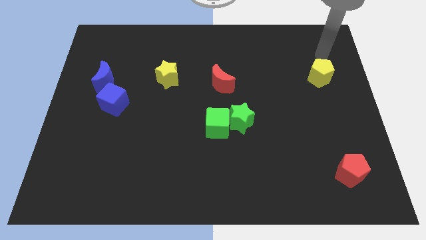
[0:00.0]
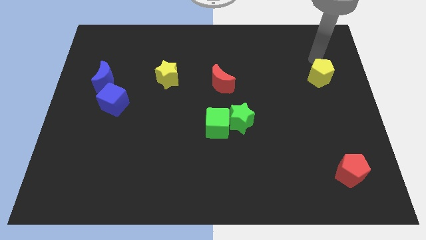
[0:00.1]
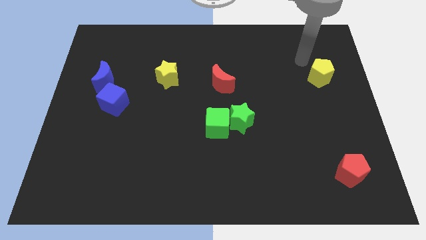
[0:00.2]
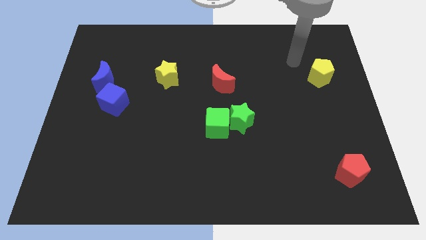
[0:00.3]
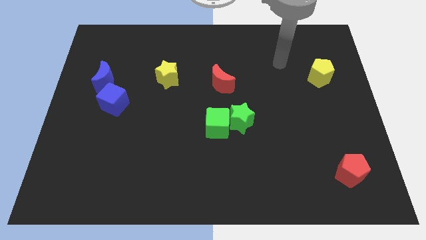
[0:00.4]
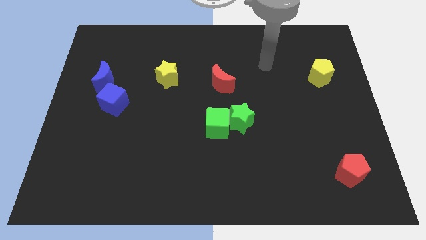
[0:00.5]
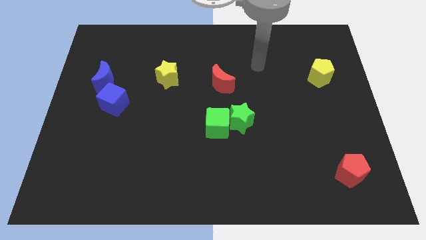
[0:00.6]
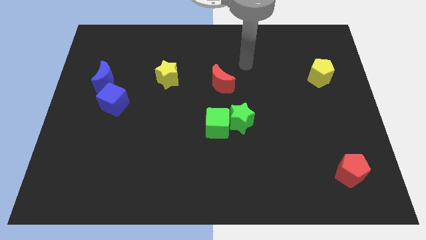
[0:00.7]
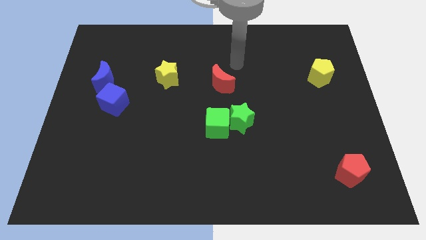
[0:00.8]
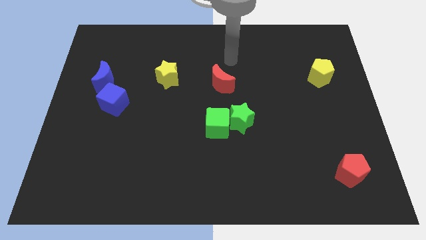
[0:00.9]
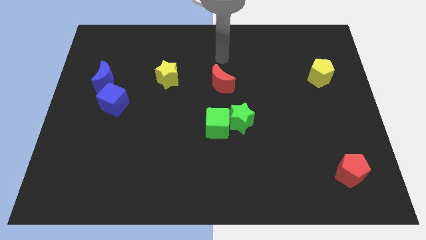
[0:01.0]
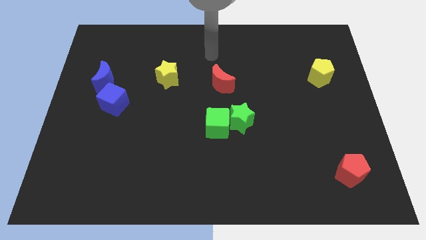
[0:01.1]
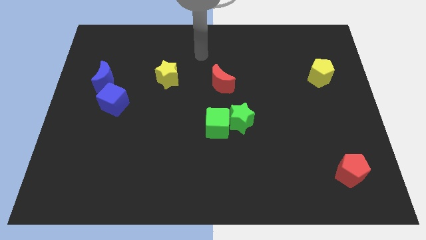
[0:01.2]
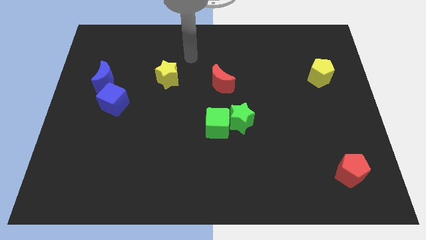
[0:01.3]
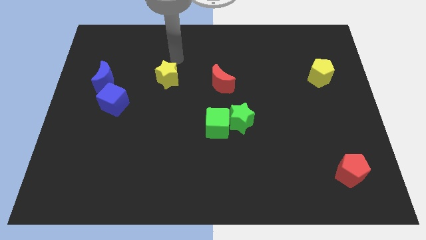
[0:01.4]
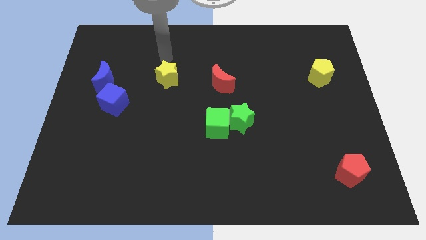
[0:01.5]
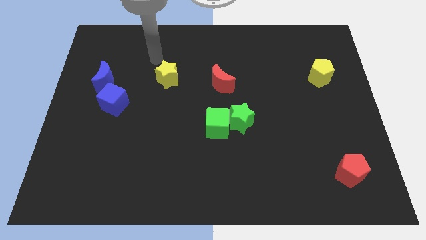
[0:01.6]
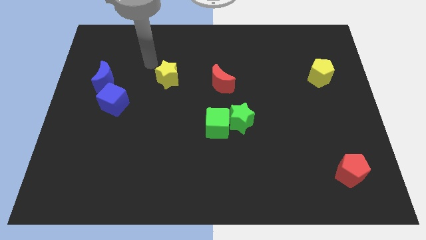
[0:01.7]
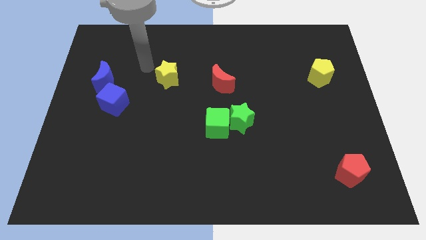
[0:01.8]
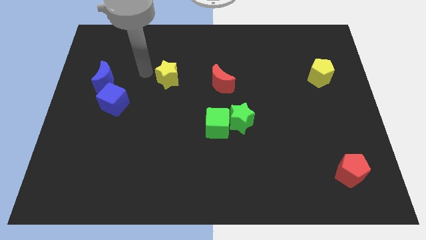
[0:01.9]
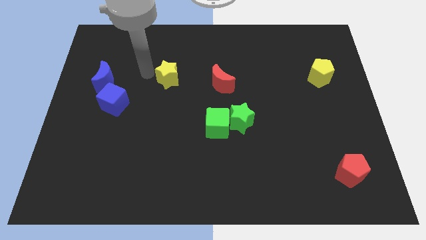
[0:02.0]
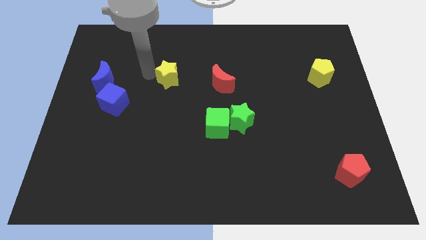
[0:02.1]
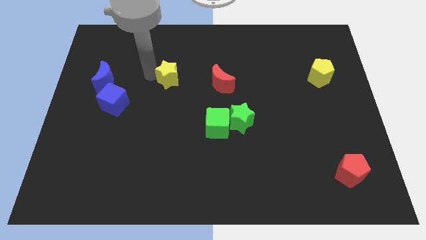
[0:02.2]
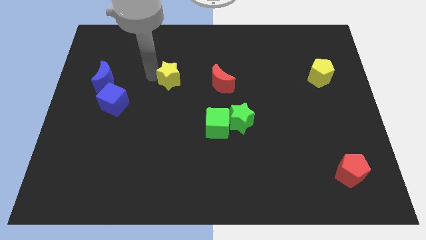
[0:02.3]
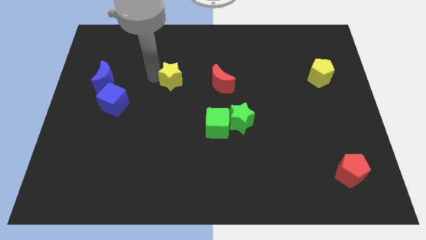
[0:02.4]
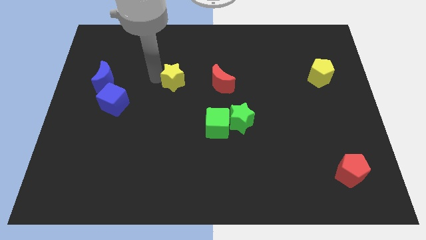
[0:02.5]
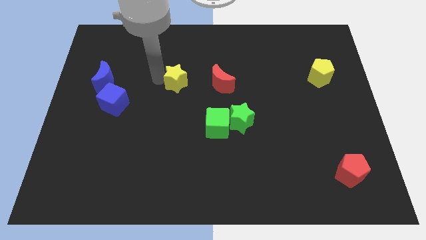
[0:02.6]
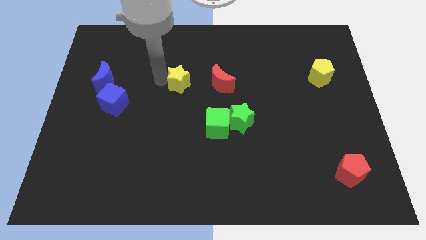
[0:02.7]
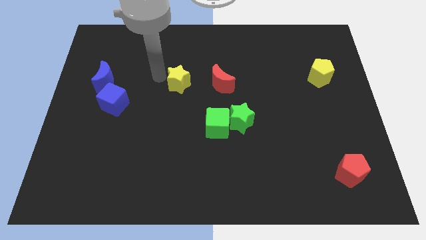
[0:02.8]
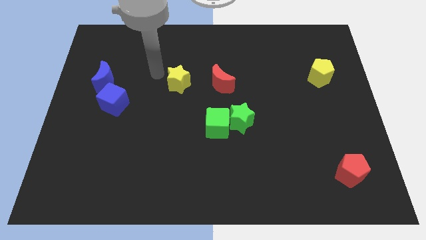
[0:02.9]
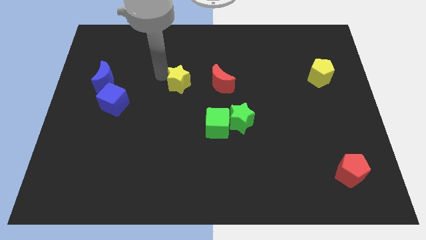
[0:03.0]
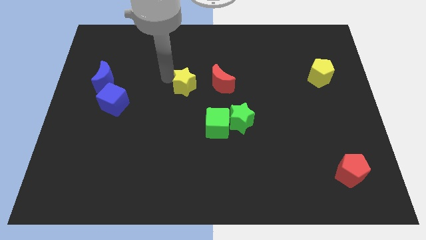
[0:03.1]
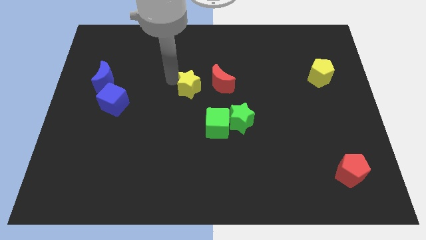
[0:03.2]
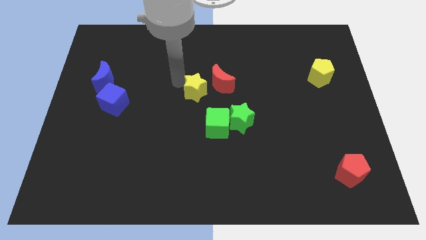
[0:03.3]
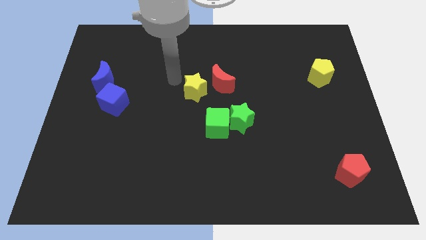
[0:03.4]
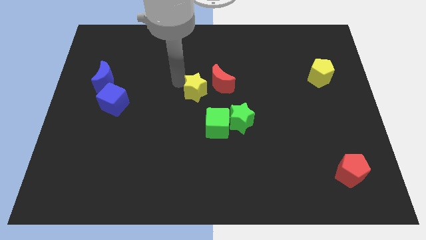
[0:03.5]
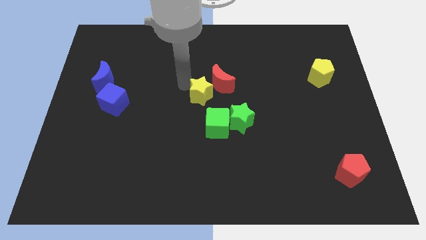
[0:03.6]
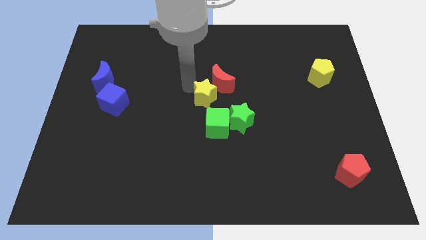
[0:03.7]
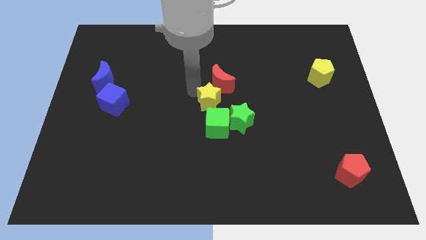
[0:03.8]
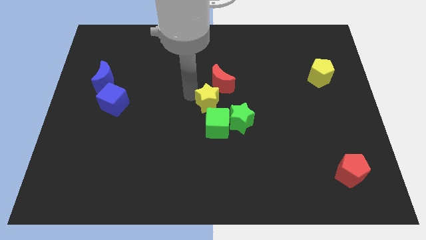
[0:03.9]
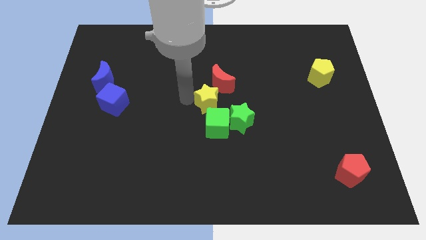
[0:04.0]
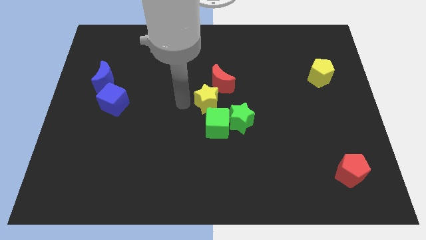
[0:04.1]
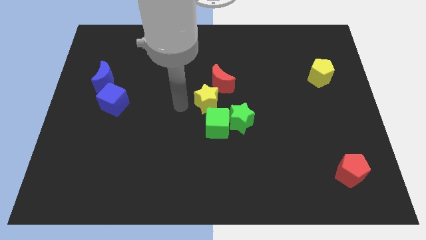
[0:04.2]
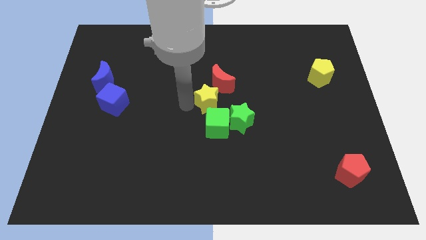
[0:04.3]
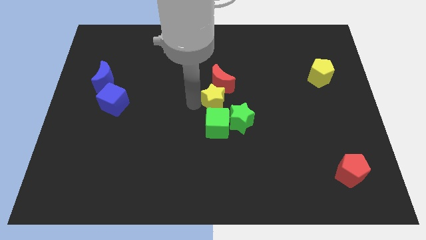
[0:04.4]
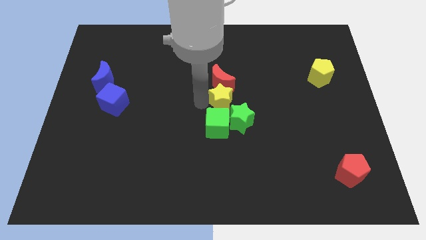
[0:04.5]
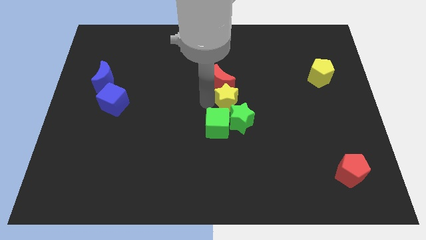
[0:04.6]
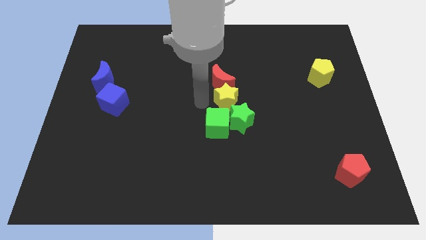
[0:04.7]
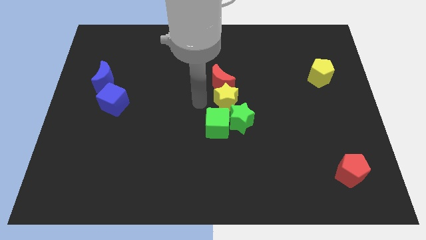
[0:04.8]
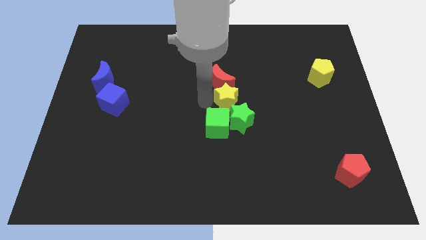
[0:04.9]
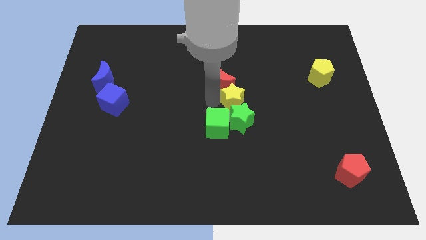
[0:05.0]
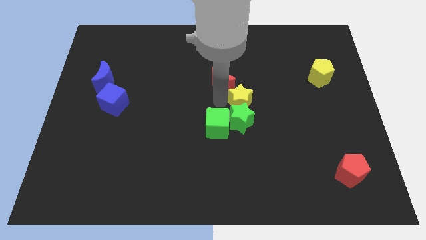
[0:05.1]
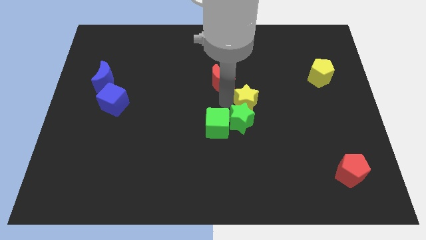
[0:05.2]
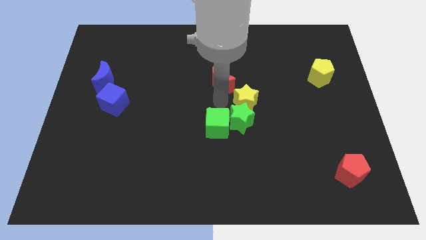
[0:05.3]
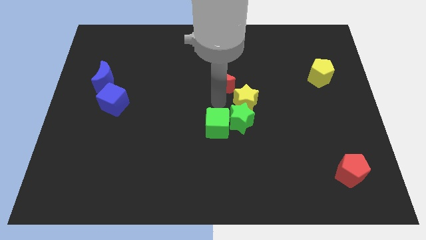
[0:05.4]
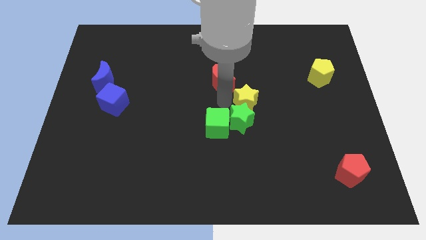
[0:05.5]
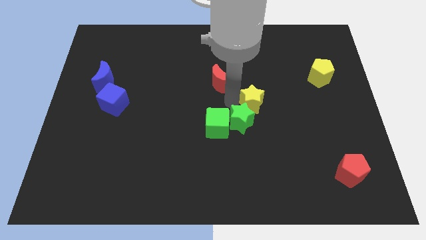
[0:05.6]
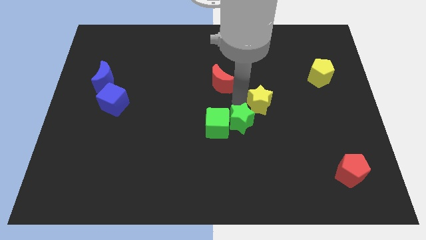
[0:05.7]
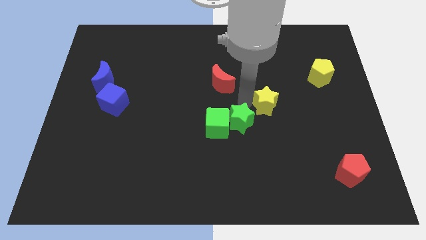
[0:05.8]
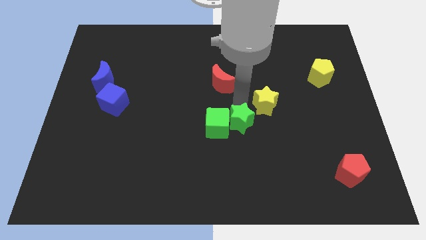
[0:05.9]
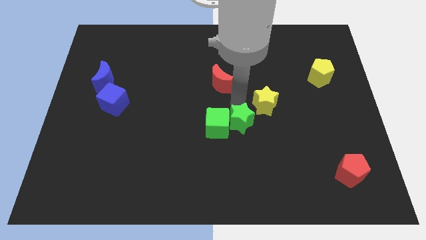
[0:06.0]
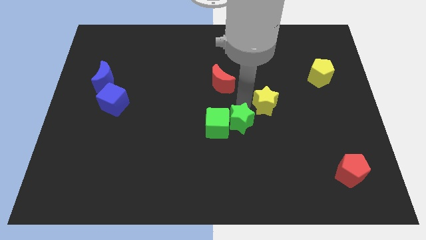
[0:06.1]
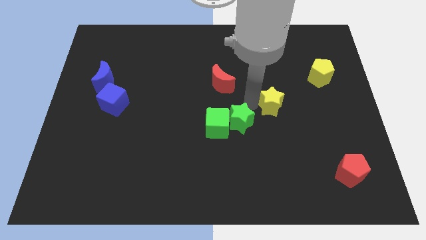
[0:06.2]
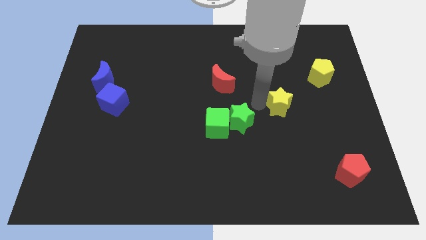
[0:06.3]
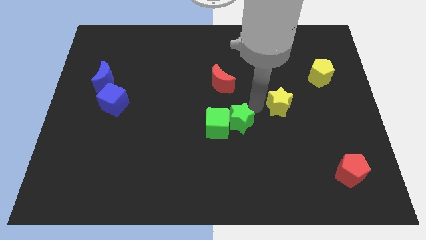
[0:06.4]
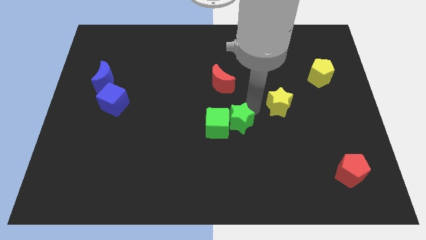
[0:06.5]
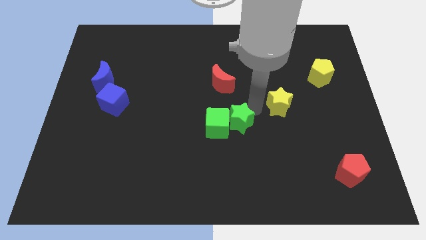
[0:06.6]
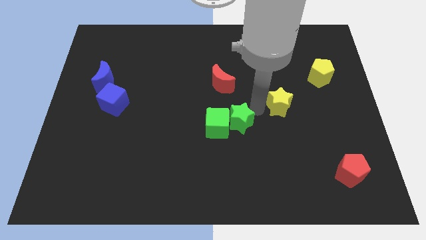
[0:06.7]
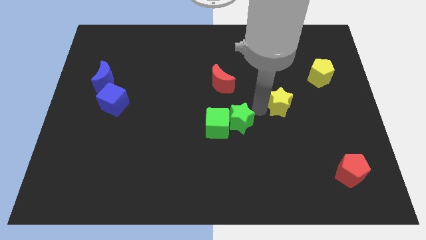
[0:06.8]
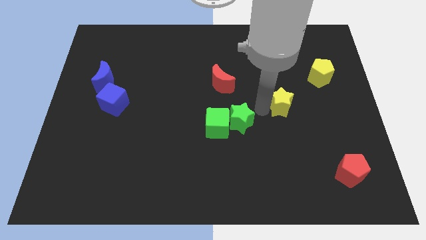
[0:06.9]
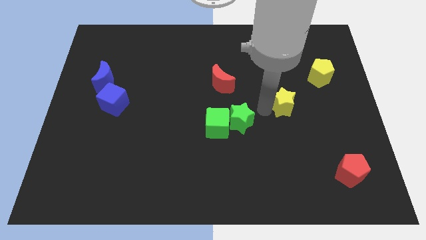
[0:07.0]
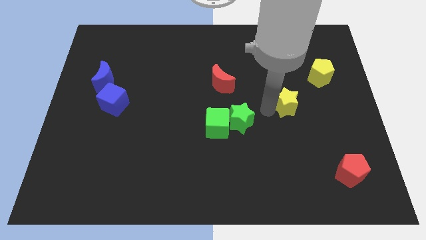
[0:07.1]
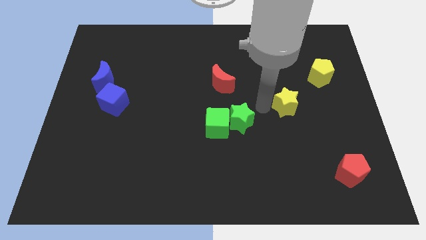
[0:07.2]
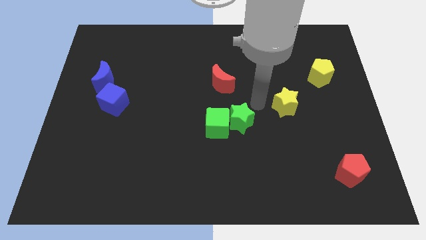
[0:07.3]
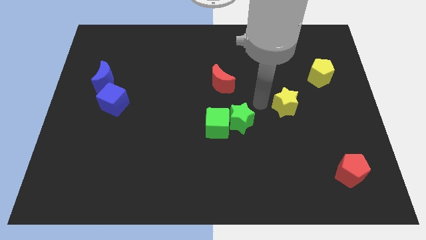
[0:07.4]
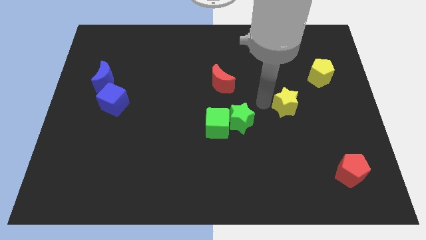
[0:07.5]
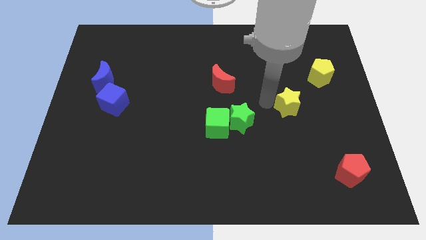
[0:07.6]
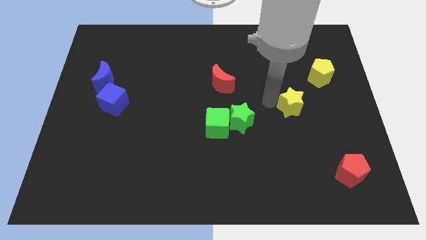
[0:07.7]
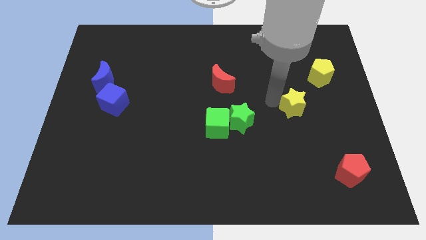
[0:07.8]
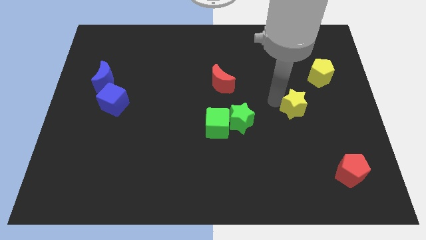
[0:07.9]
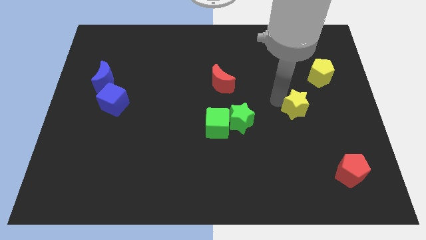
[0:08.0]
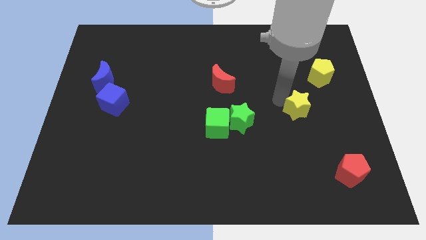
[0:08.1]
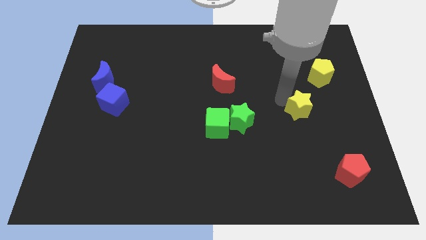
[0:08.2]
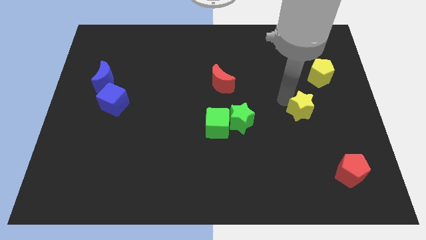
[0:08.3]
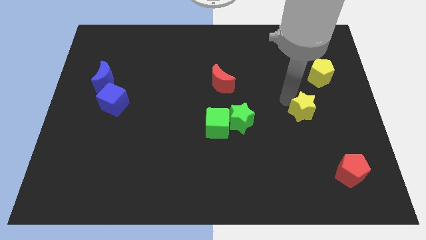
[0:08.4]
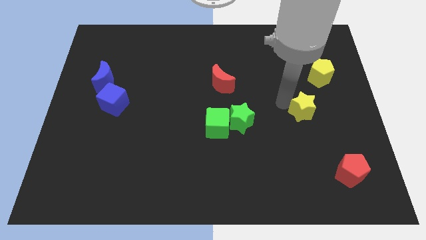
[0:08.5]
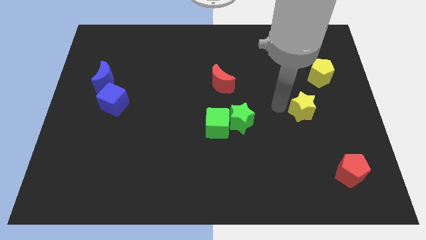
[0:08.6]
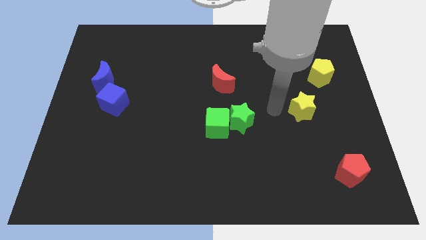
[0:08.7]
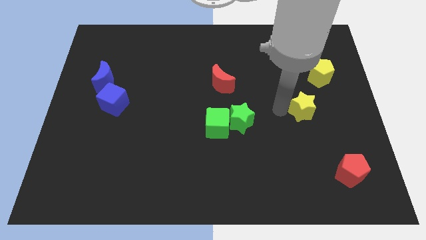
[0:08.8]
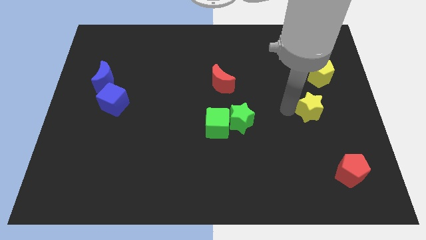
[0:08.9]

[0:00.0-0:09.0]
move the yellow star to the bottom side of the yellow pentagon
